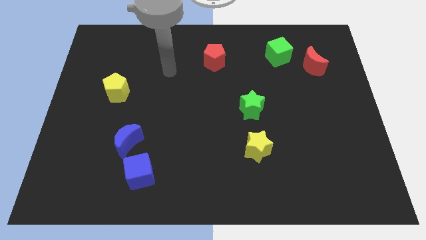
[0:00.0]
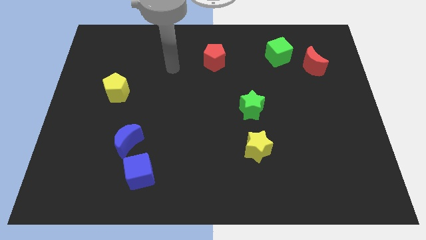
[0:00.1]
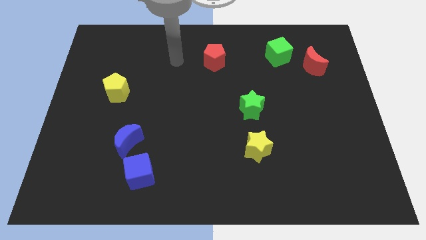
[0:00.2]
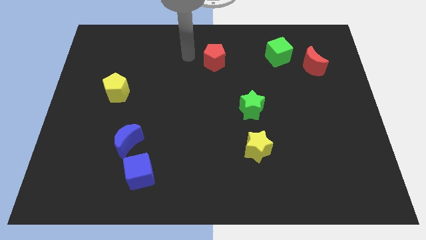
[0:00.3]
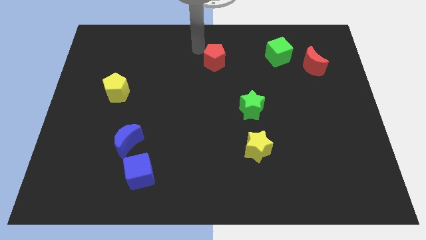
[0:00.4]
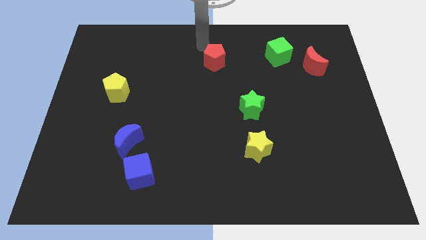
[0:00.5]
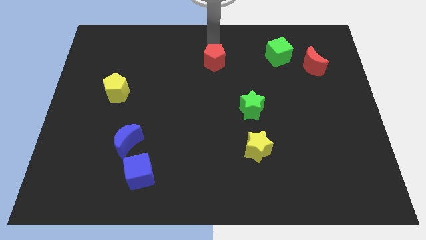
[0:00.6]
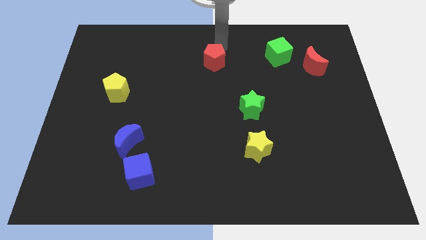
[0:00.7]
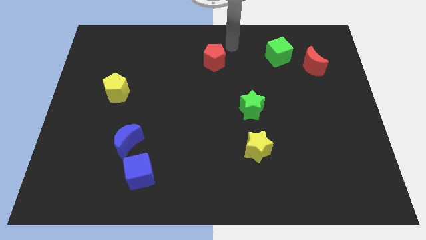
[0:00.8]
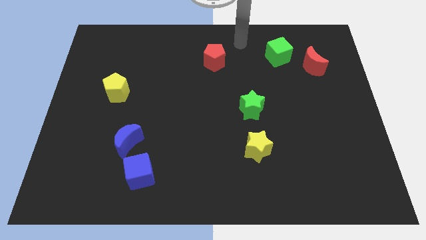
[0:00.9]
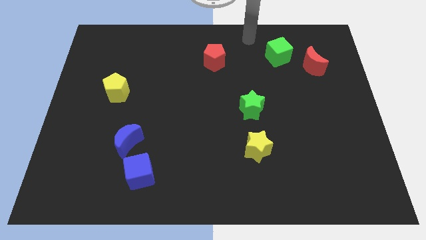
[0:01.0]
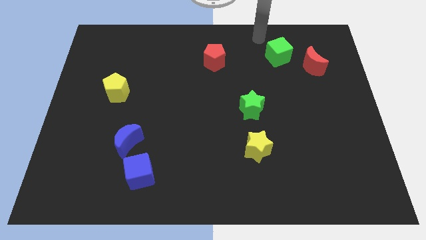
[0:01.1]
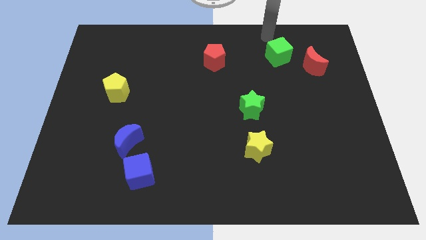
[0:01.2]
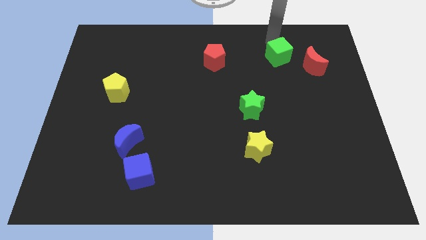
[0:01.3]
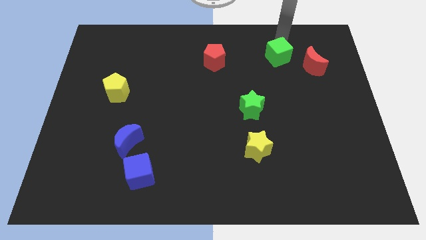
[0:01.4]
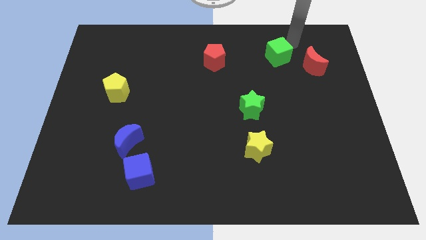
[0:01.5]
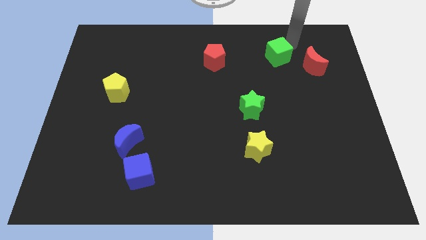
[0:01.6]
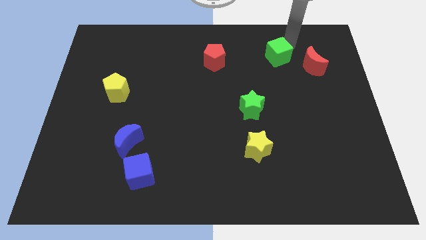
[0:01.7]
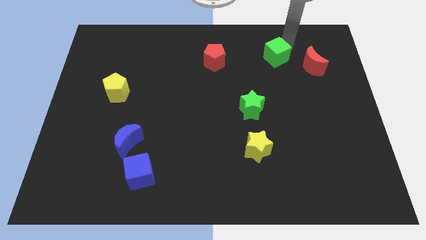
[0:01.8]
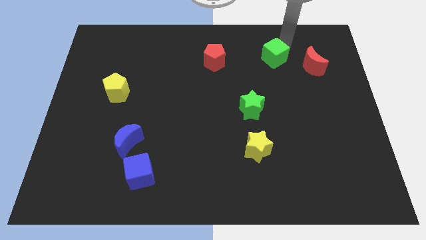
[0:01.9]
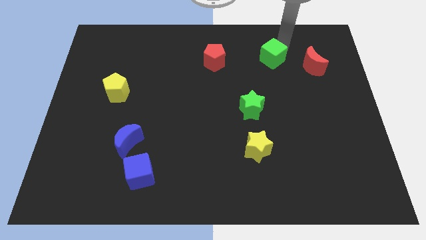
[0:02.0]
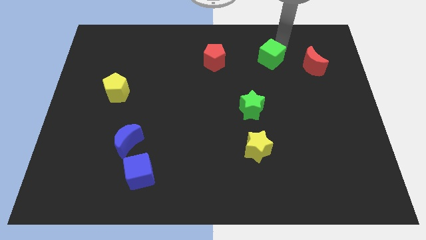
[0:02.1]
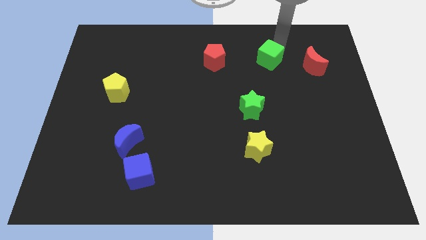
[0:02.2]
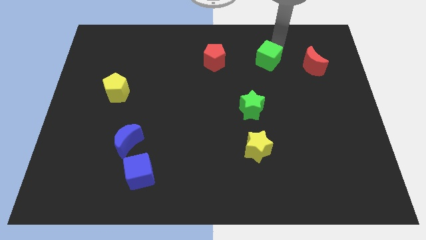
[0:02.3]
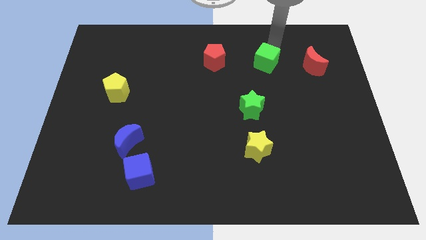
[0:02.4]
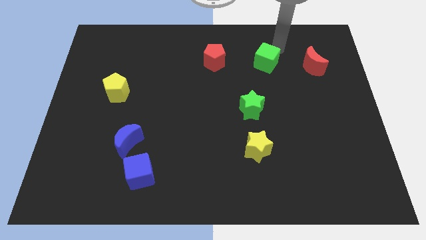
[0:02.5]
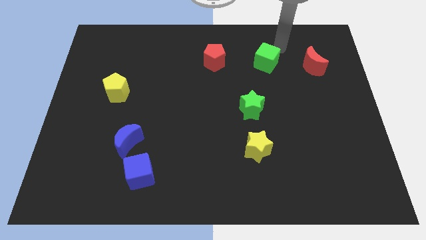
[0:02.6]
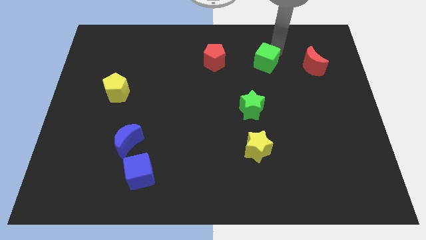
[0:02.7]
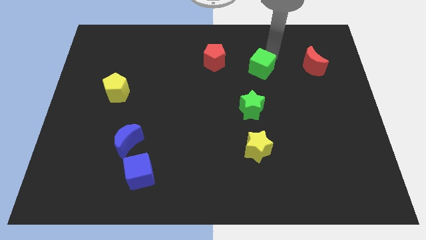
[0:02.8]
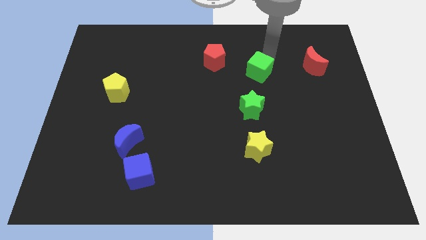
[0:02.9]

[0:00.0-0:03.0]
move the green cube diagonally down and to the left slightly

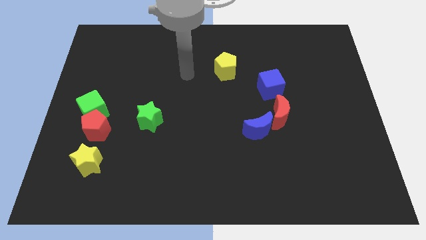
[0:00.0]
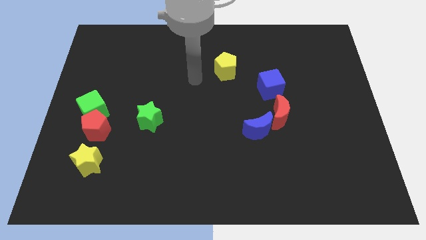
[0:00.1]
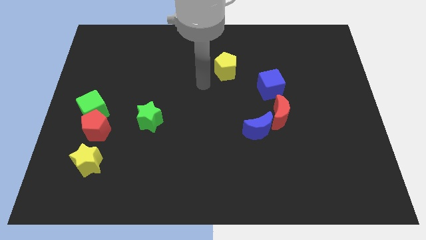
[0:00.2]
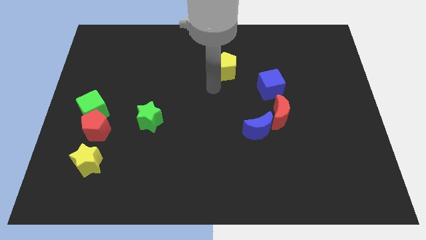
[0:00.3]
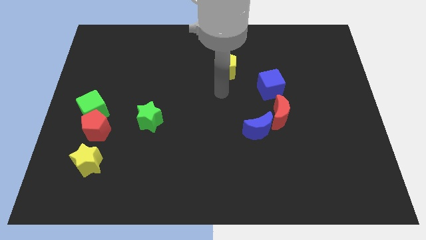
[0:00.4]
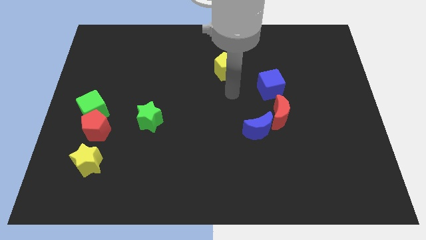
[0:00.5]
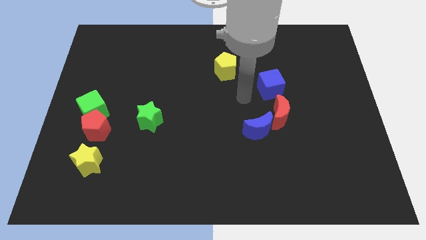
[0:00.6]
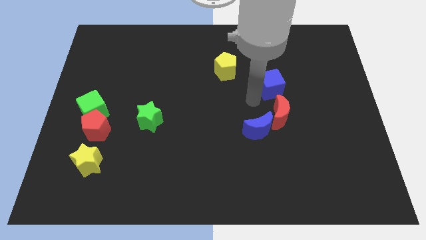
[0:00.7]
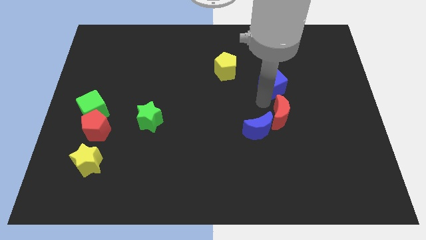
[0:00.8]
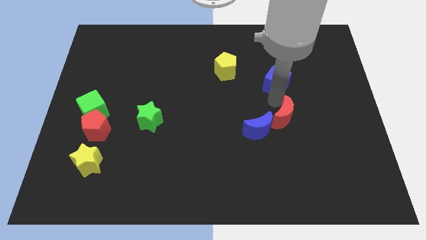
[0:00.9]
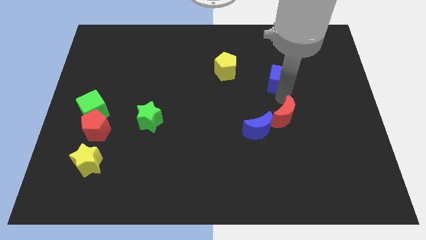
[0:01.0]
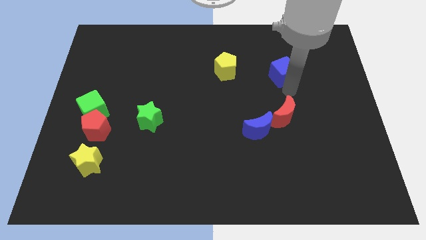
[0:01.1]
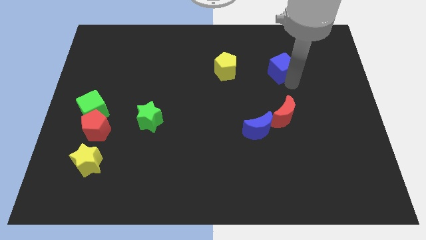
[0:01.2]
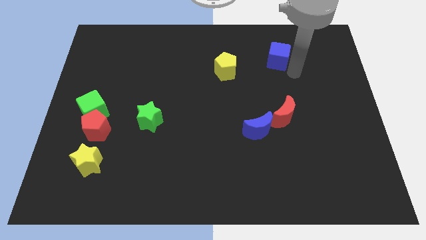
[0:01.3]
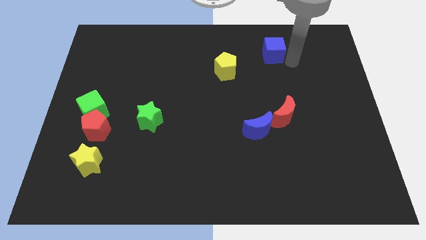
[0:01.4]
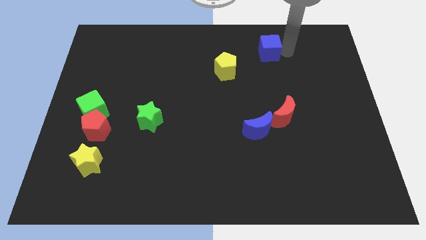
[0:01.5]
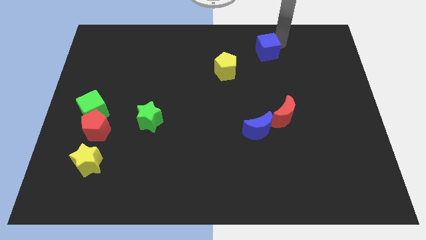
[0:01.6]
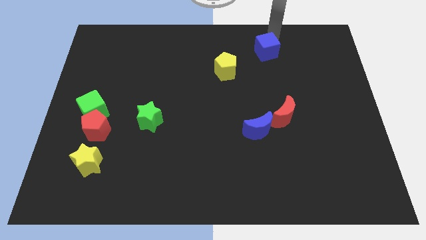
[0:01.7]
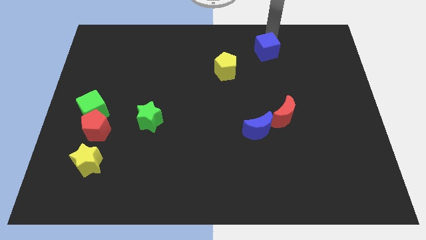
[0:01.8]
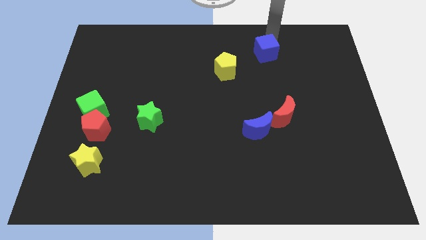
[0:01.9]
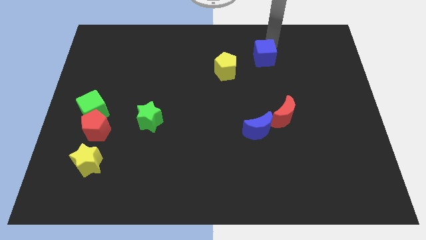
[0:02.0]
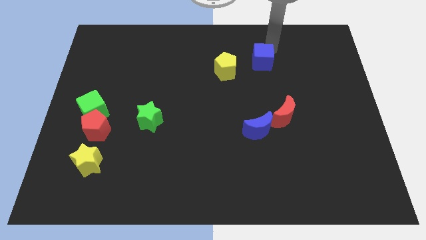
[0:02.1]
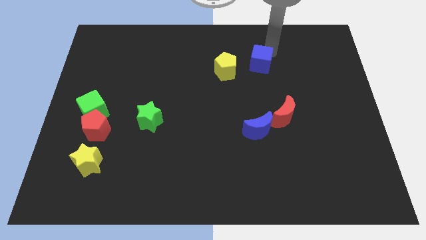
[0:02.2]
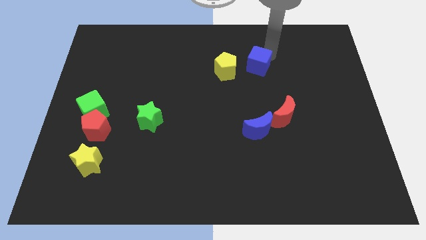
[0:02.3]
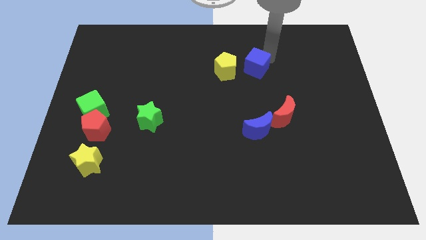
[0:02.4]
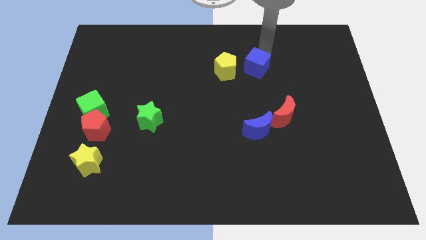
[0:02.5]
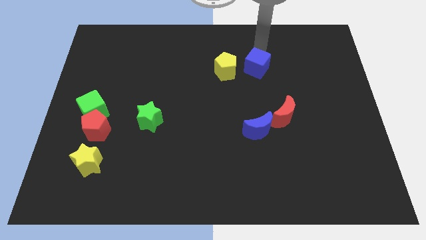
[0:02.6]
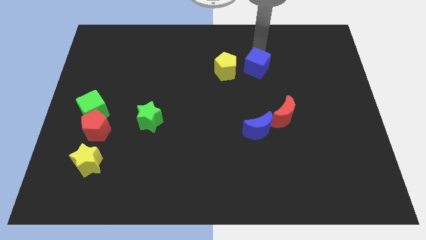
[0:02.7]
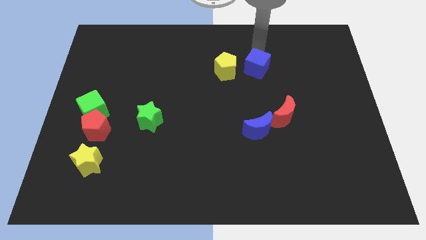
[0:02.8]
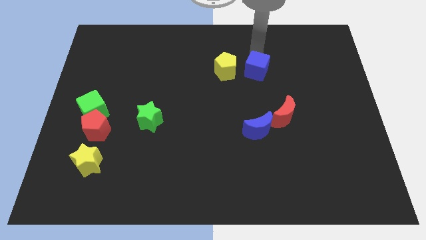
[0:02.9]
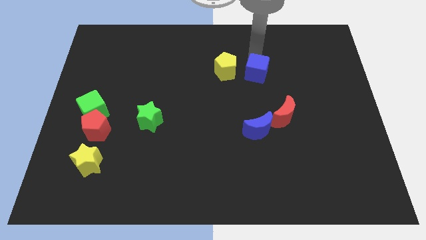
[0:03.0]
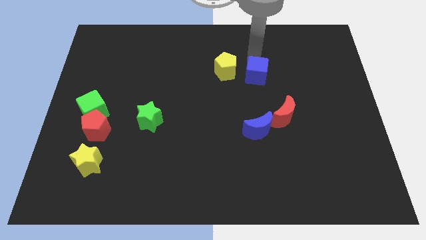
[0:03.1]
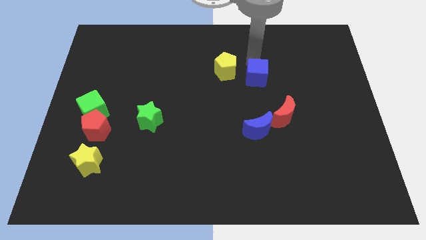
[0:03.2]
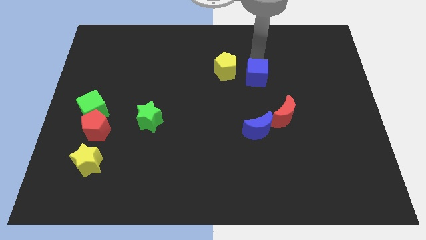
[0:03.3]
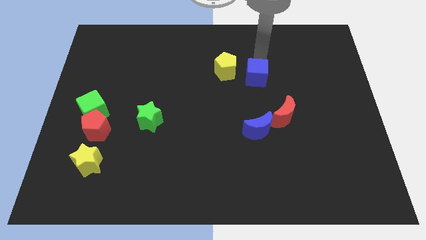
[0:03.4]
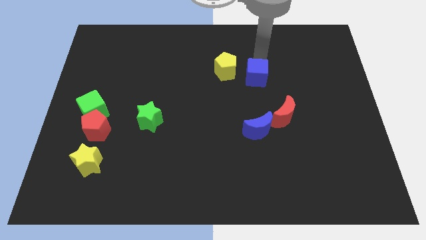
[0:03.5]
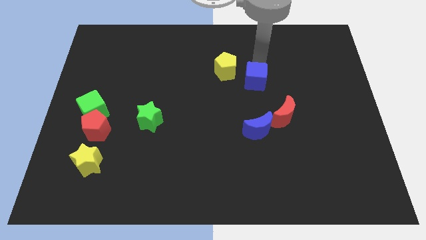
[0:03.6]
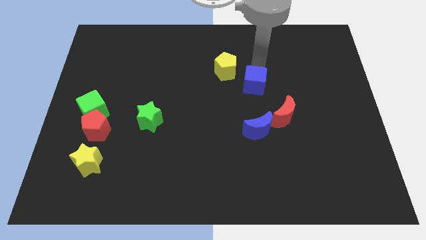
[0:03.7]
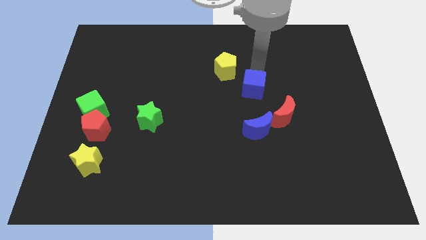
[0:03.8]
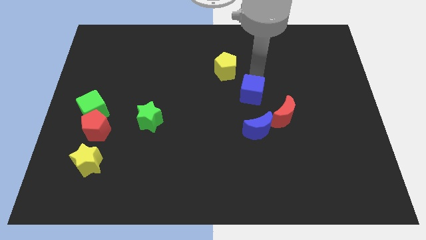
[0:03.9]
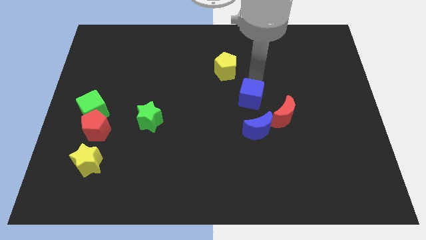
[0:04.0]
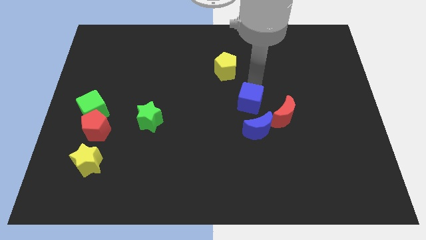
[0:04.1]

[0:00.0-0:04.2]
move the blue cube downwards and then left slightly

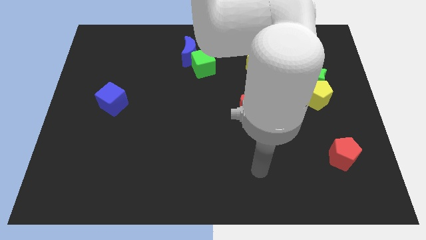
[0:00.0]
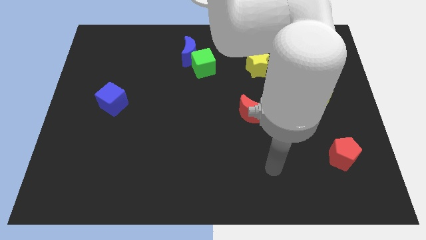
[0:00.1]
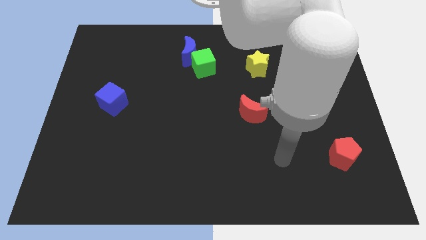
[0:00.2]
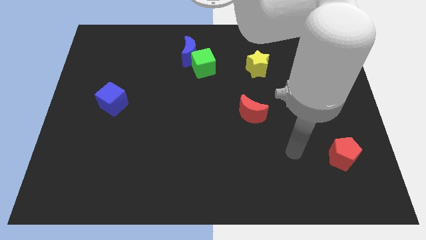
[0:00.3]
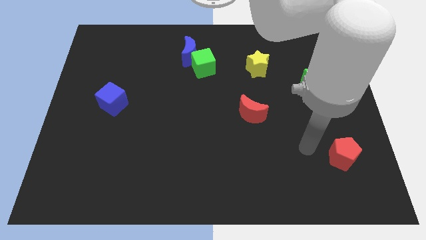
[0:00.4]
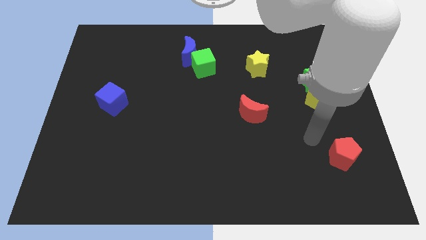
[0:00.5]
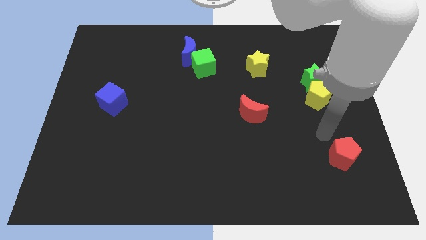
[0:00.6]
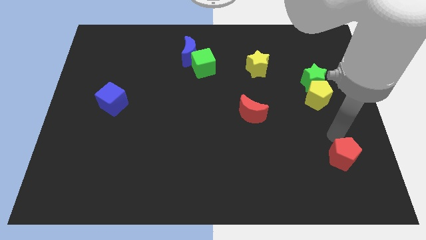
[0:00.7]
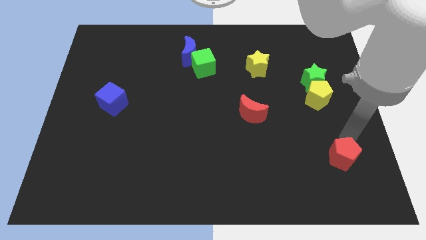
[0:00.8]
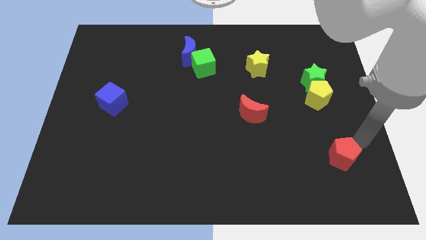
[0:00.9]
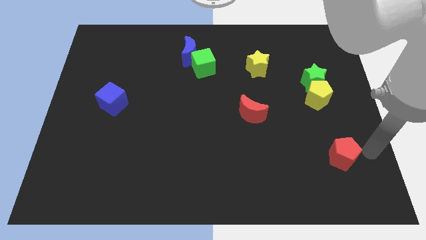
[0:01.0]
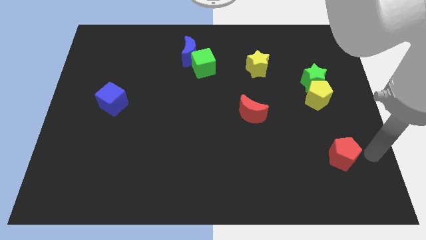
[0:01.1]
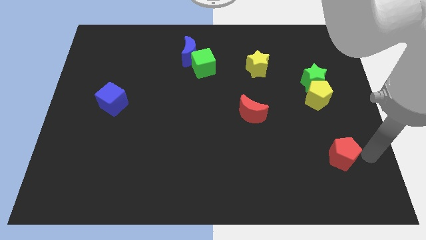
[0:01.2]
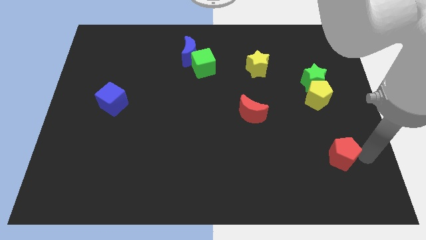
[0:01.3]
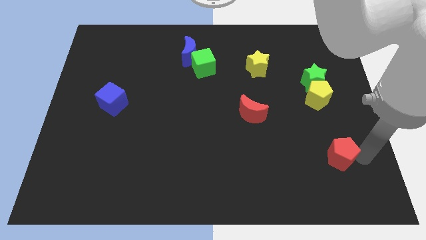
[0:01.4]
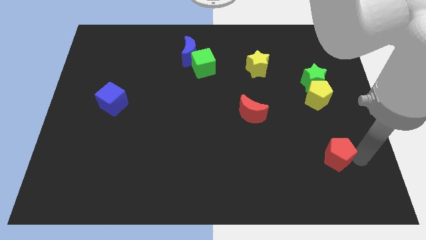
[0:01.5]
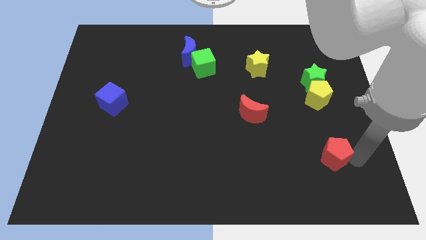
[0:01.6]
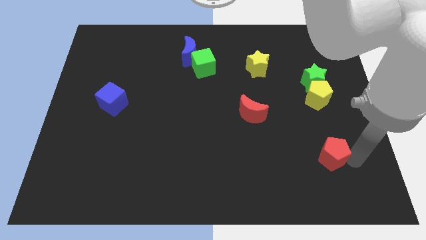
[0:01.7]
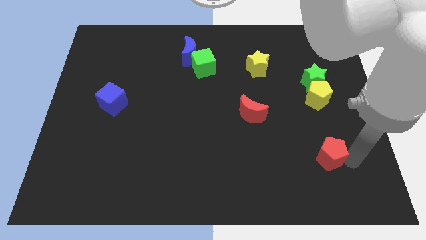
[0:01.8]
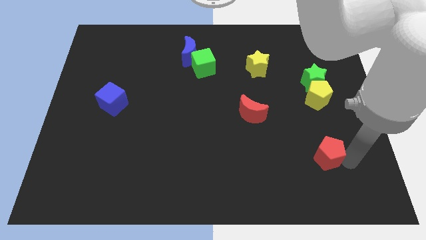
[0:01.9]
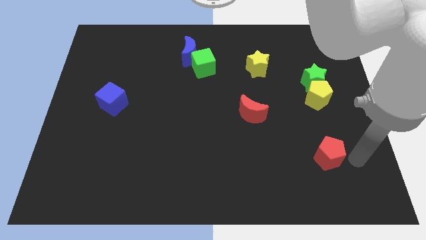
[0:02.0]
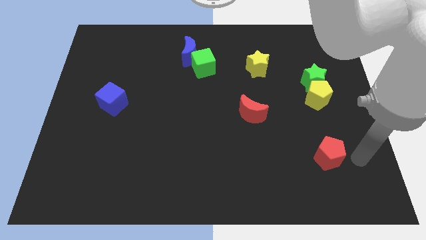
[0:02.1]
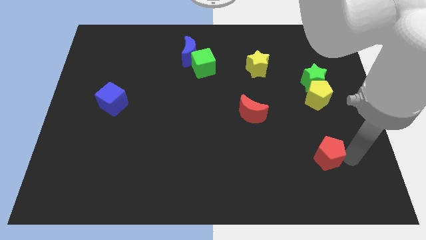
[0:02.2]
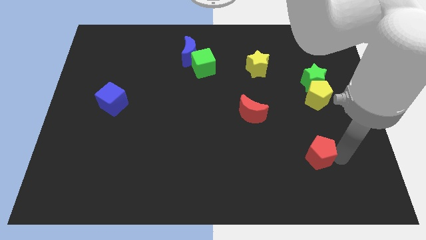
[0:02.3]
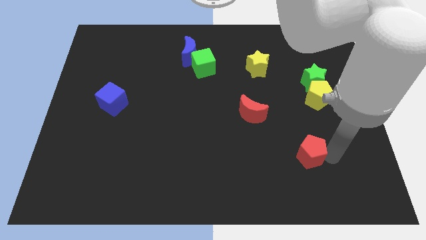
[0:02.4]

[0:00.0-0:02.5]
move the red pentagon to the left a bit
